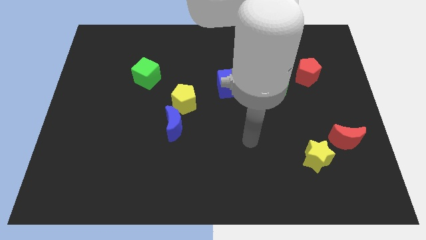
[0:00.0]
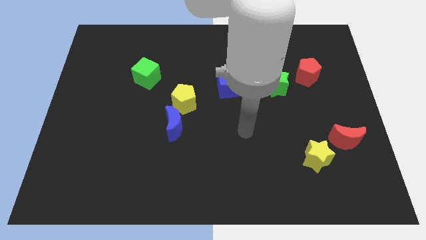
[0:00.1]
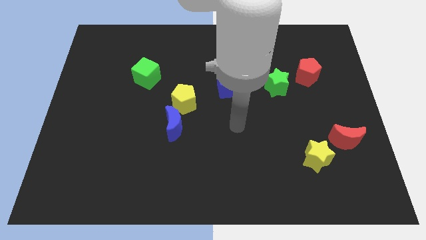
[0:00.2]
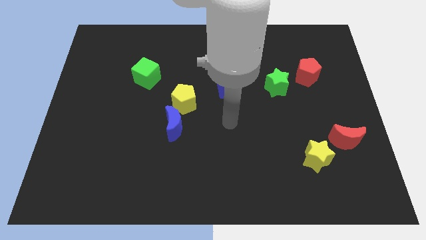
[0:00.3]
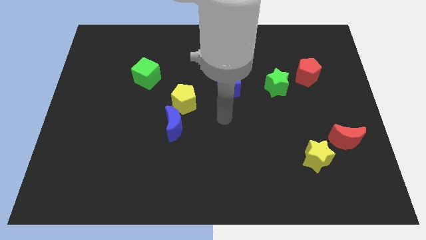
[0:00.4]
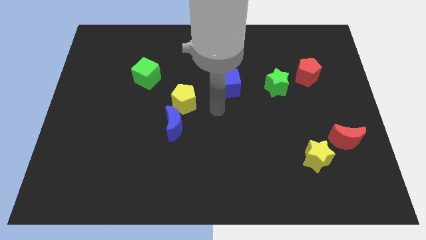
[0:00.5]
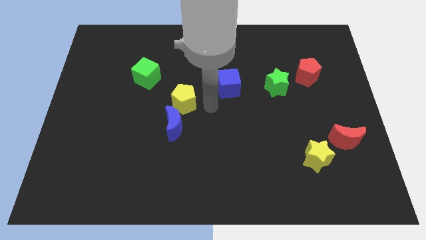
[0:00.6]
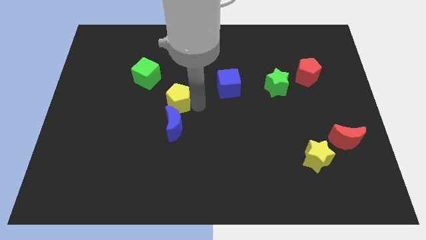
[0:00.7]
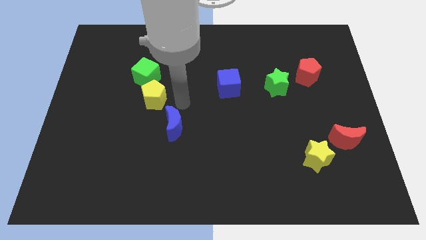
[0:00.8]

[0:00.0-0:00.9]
pull the blue moon apart from the yellow pentagon

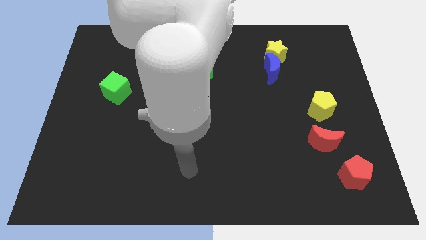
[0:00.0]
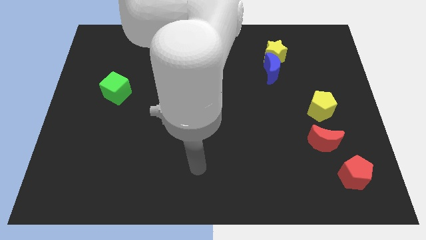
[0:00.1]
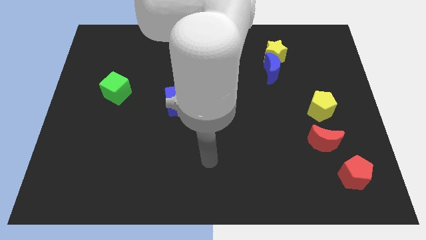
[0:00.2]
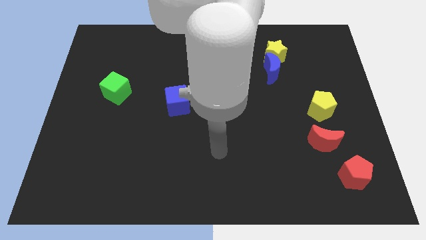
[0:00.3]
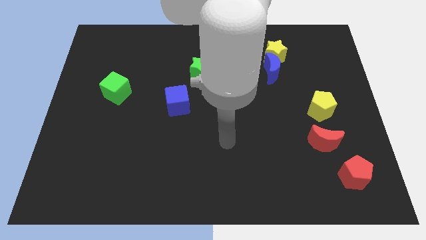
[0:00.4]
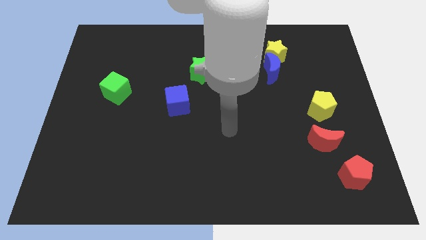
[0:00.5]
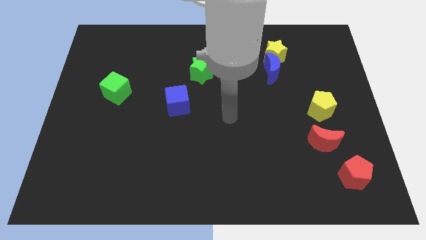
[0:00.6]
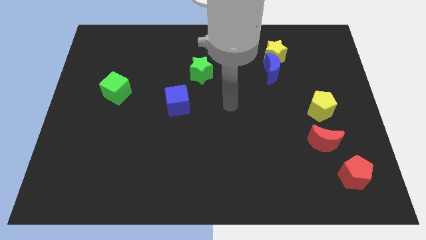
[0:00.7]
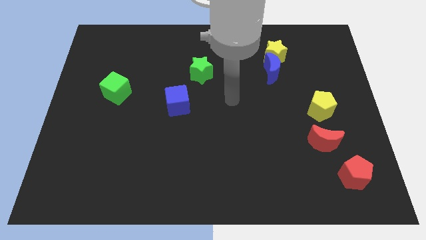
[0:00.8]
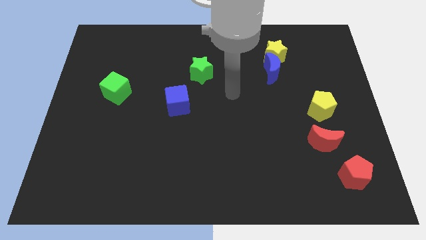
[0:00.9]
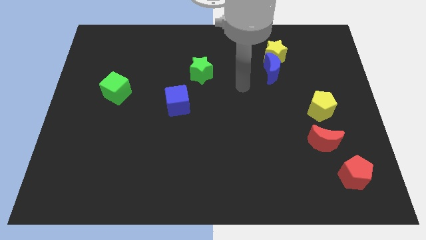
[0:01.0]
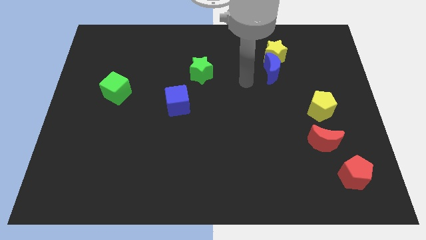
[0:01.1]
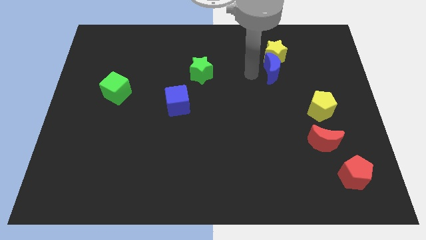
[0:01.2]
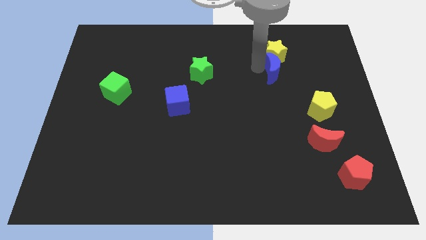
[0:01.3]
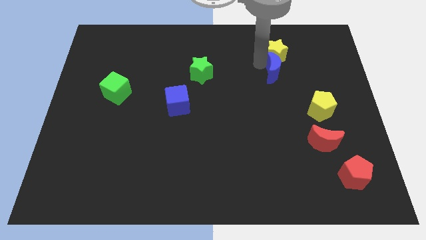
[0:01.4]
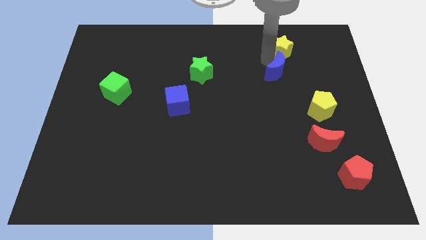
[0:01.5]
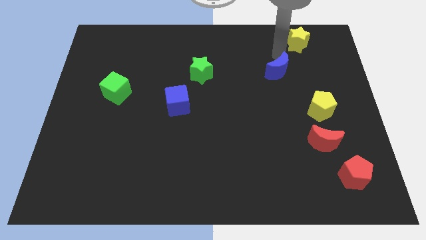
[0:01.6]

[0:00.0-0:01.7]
separate the blue moon from the yellow star

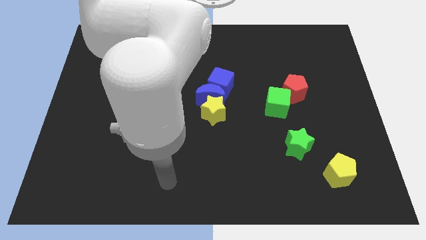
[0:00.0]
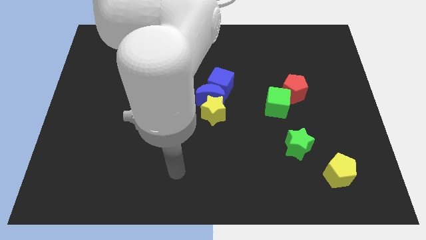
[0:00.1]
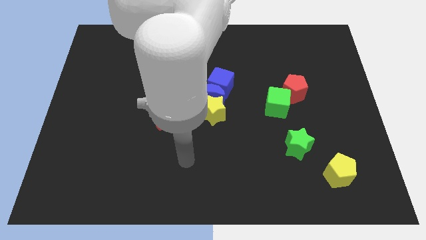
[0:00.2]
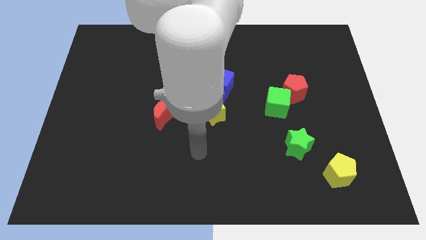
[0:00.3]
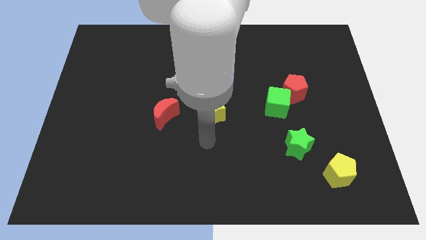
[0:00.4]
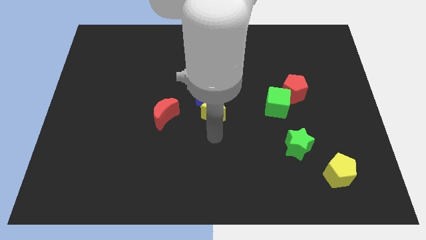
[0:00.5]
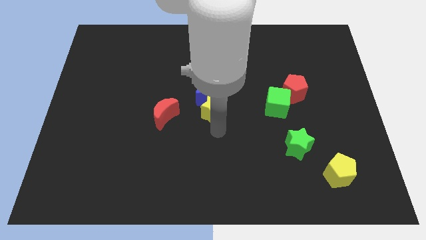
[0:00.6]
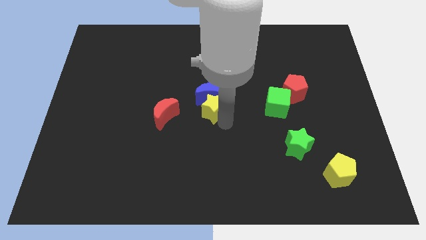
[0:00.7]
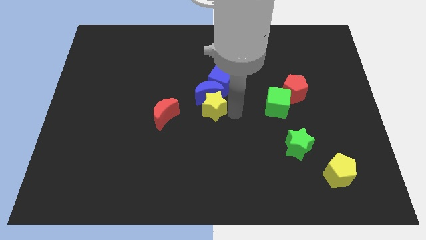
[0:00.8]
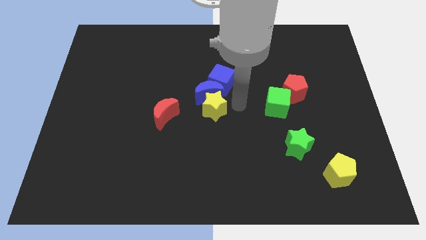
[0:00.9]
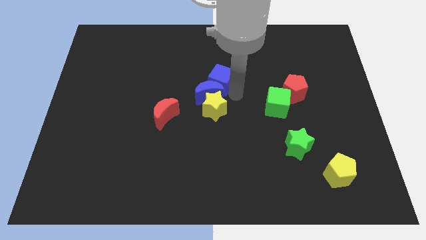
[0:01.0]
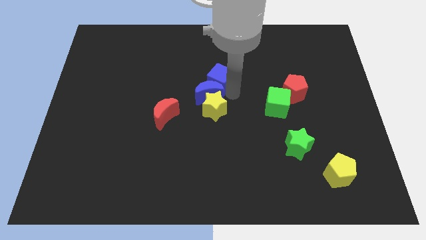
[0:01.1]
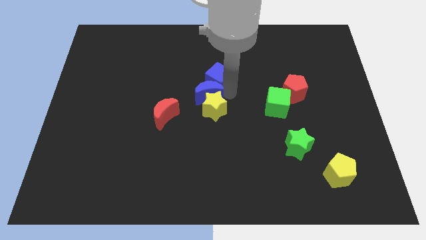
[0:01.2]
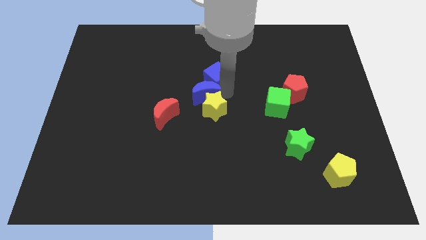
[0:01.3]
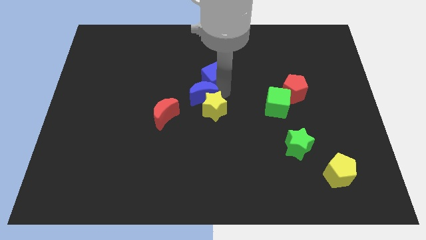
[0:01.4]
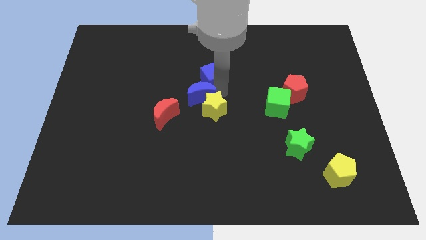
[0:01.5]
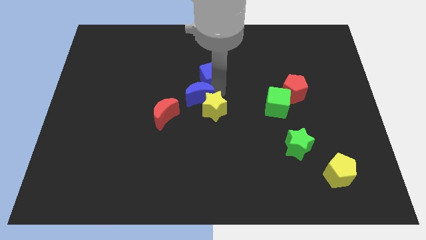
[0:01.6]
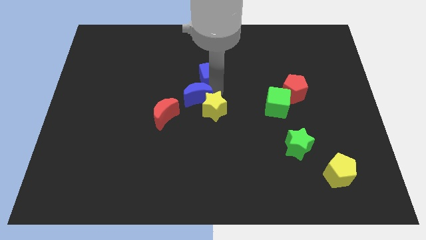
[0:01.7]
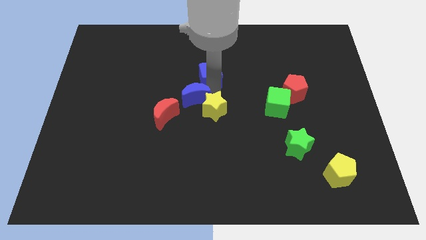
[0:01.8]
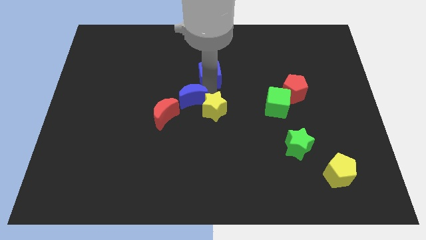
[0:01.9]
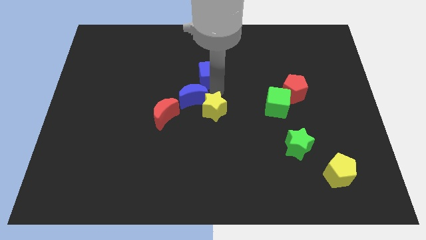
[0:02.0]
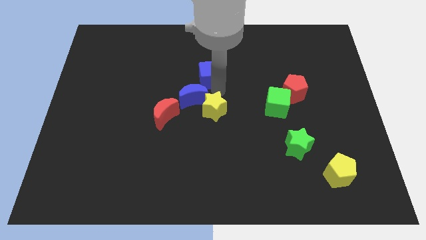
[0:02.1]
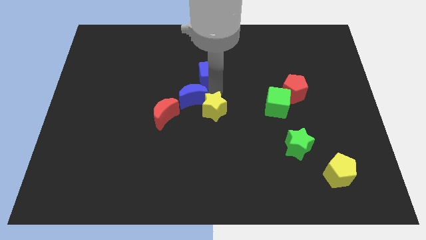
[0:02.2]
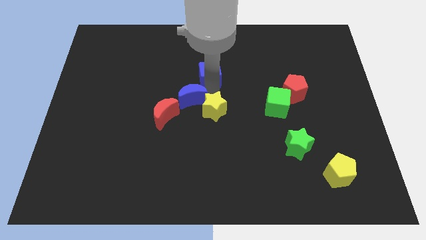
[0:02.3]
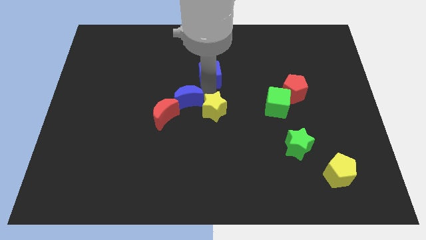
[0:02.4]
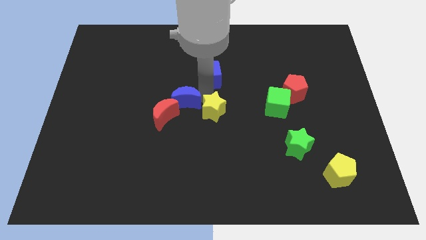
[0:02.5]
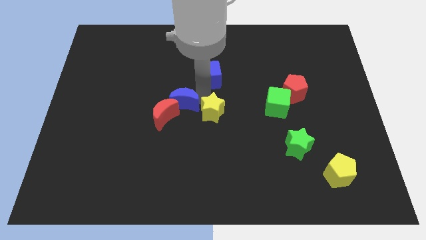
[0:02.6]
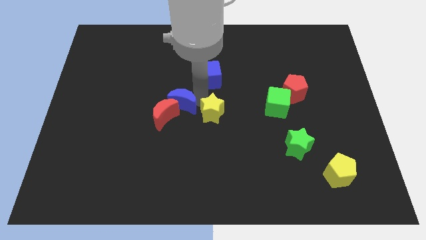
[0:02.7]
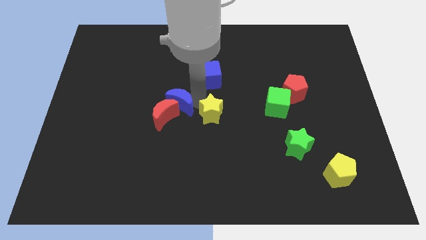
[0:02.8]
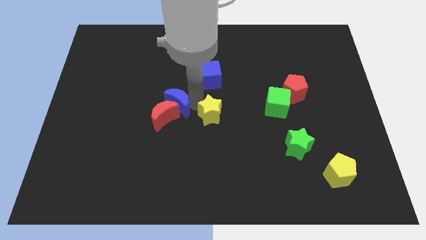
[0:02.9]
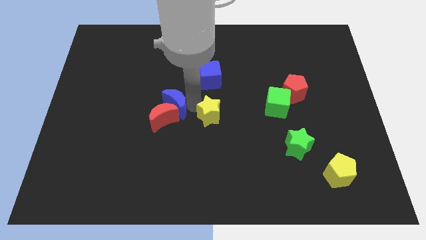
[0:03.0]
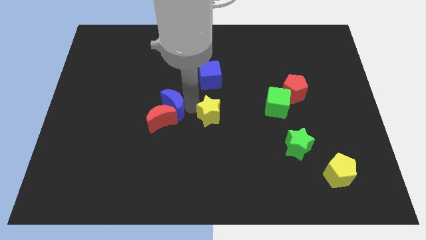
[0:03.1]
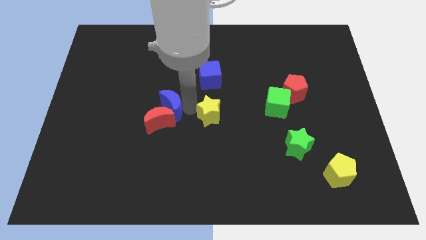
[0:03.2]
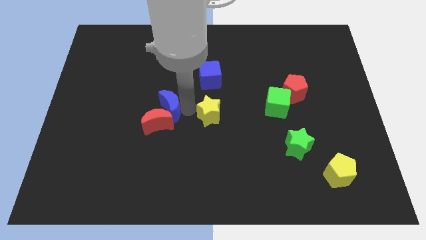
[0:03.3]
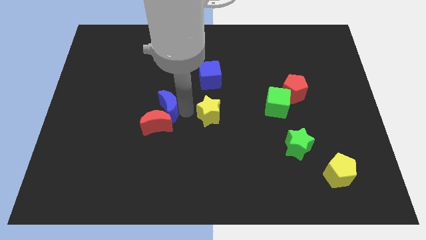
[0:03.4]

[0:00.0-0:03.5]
move the blue moon away from the yellow star and blue cube

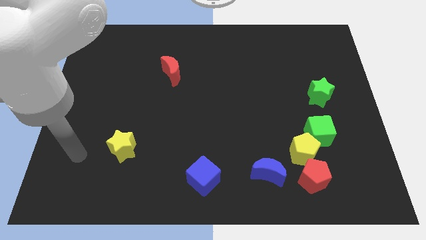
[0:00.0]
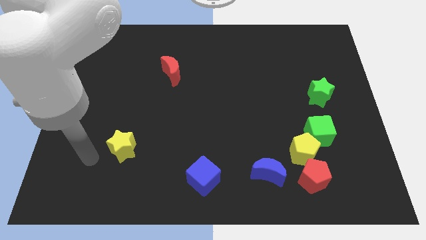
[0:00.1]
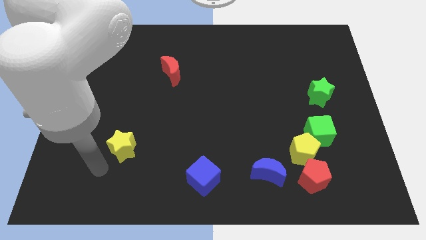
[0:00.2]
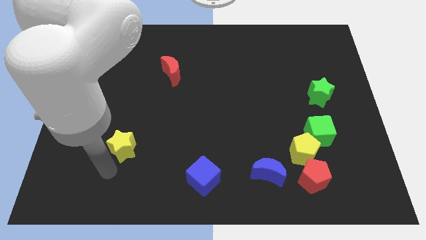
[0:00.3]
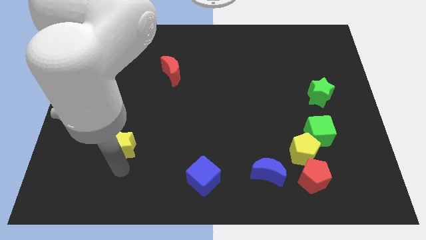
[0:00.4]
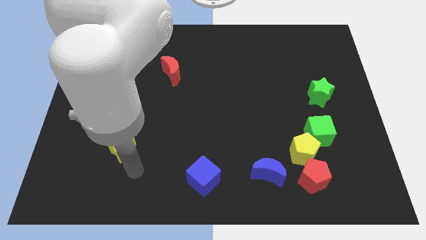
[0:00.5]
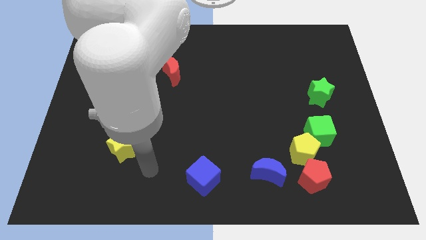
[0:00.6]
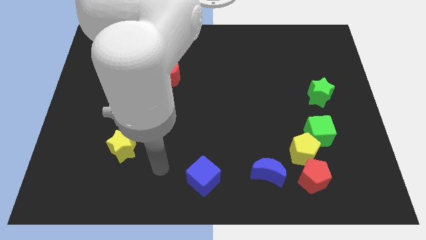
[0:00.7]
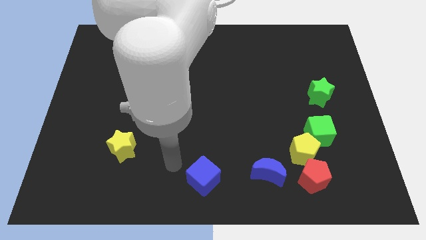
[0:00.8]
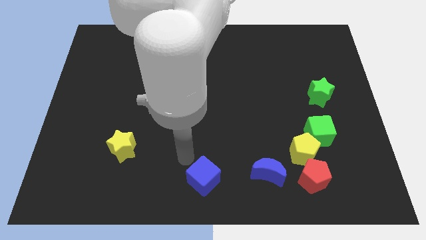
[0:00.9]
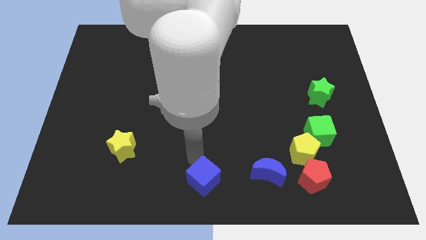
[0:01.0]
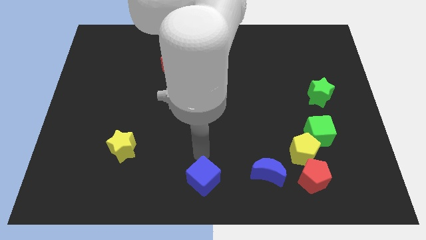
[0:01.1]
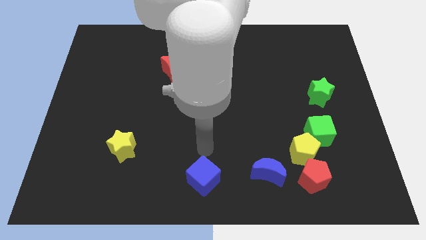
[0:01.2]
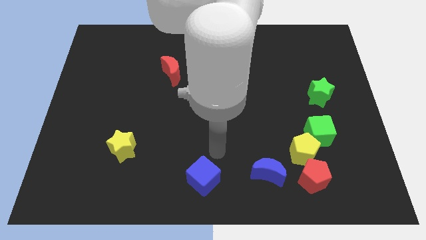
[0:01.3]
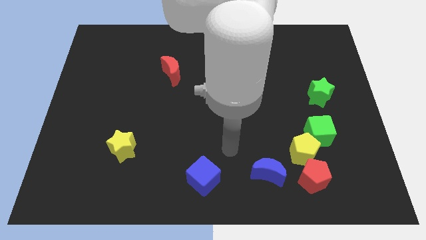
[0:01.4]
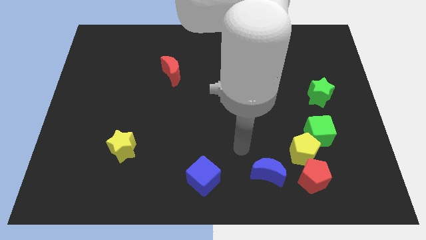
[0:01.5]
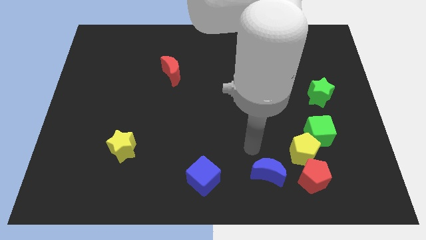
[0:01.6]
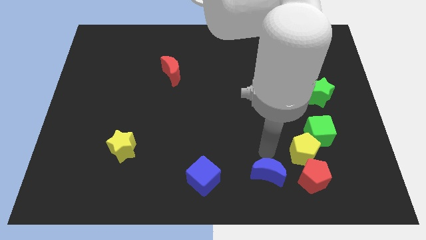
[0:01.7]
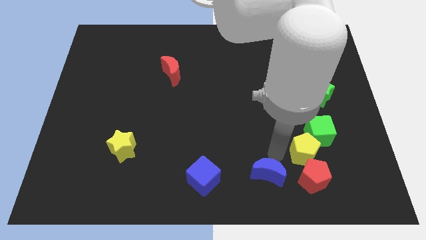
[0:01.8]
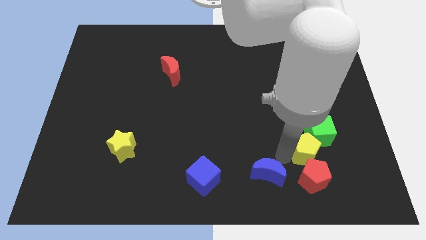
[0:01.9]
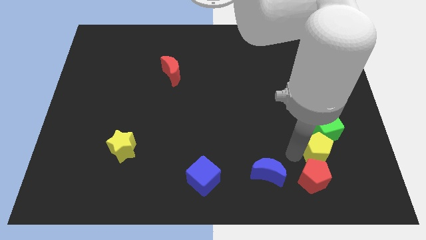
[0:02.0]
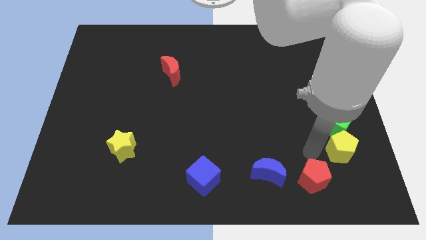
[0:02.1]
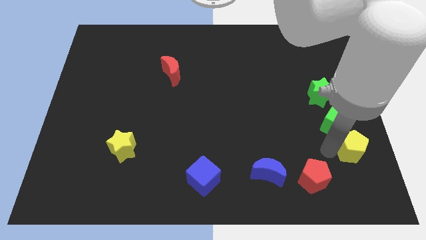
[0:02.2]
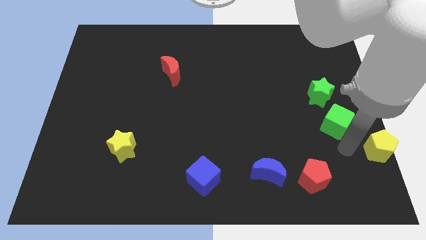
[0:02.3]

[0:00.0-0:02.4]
pull the green cube apart from the yellow pentagon

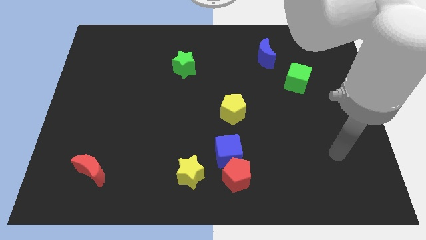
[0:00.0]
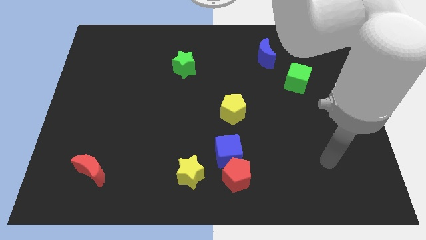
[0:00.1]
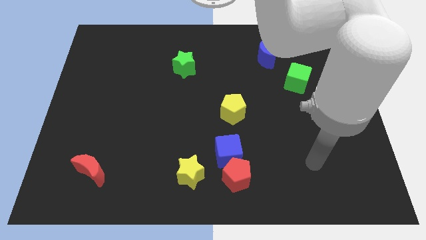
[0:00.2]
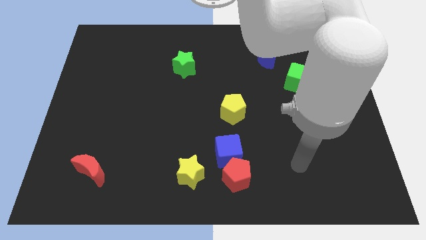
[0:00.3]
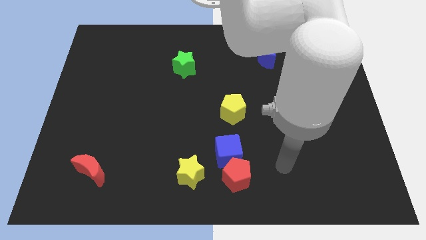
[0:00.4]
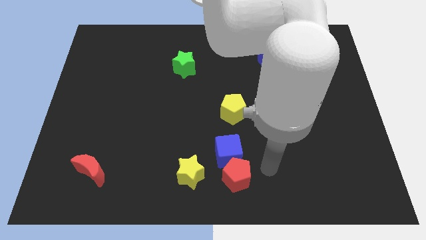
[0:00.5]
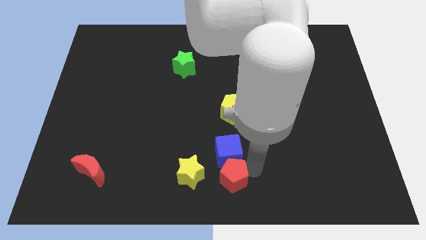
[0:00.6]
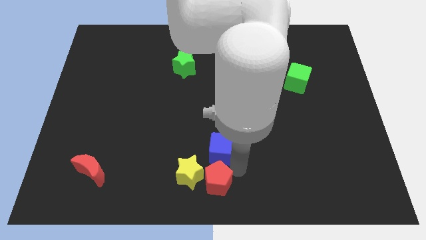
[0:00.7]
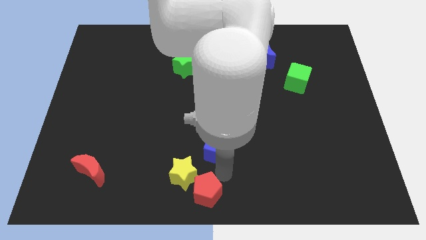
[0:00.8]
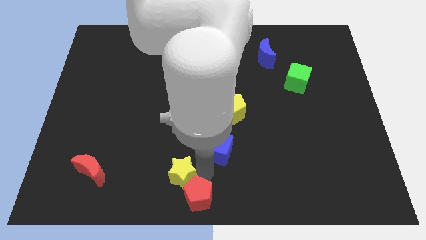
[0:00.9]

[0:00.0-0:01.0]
pull the blue cube apart from the red pentagon and yellow star

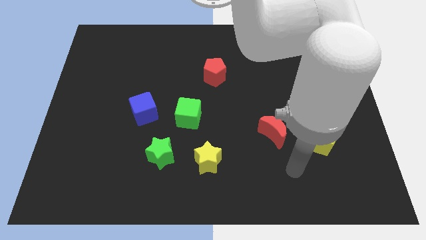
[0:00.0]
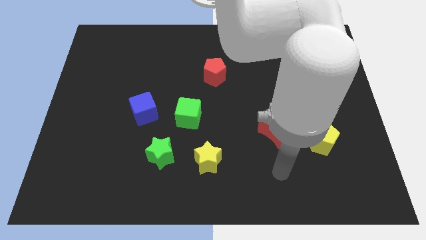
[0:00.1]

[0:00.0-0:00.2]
pull the green star apart from the yellow star
